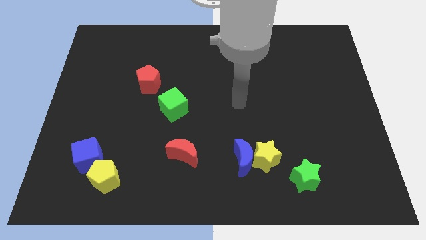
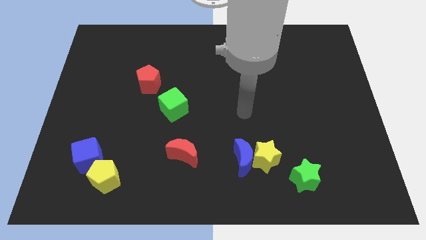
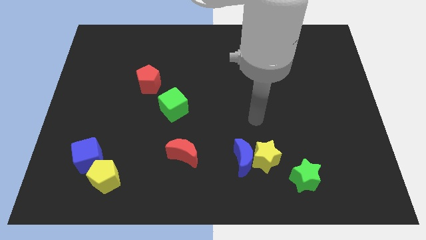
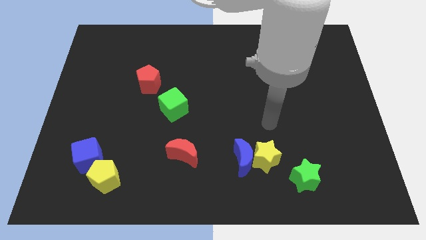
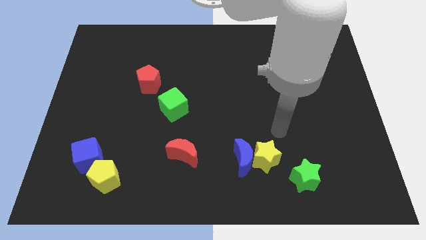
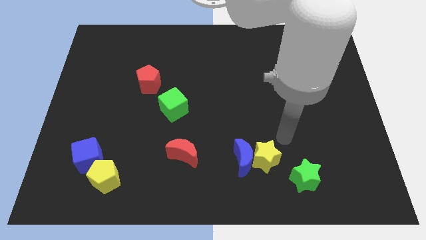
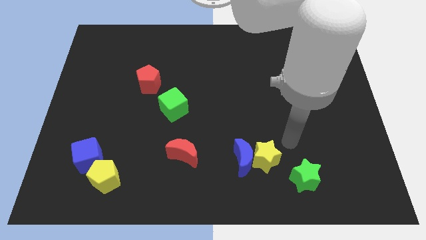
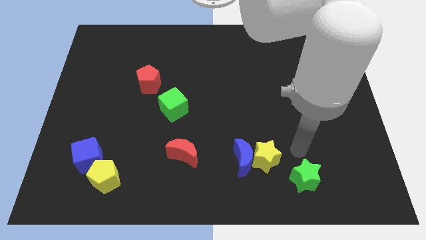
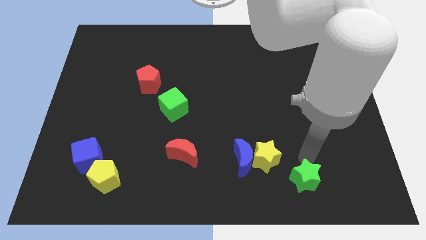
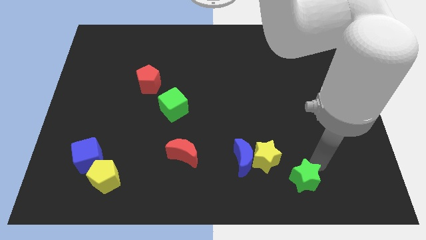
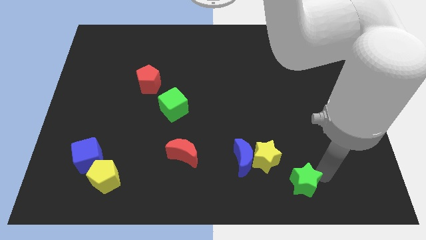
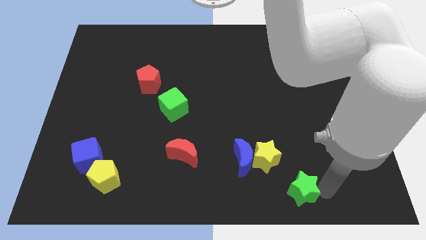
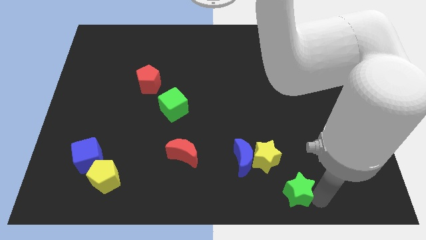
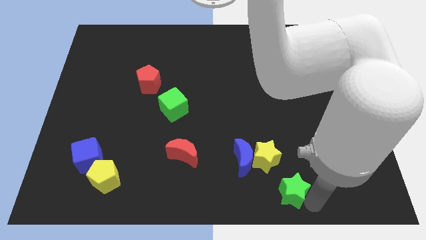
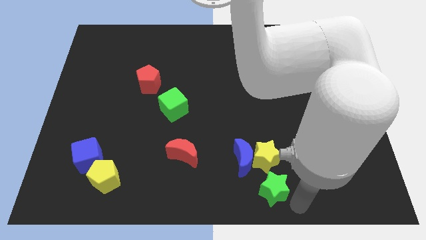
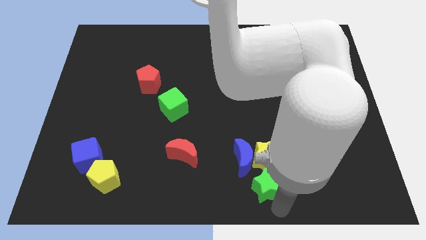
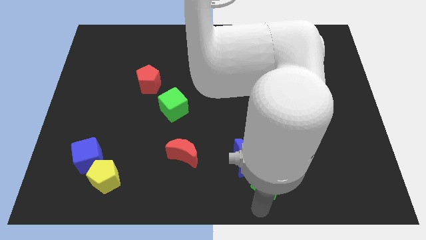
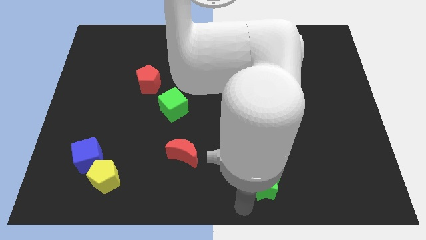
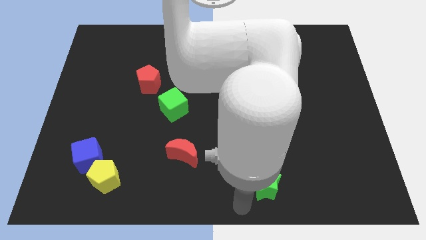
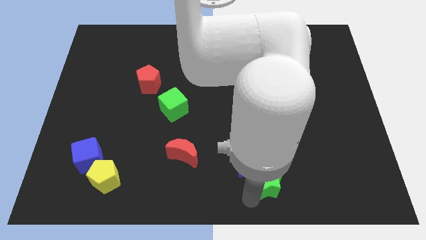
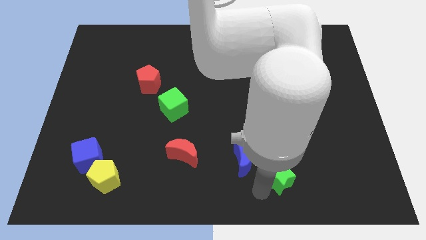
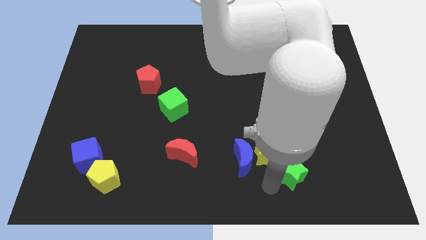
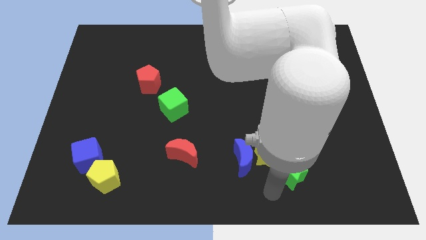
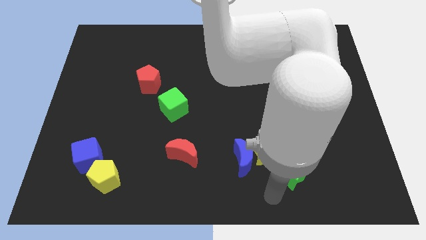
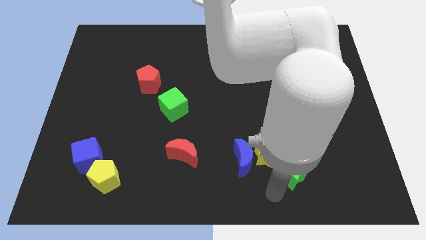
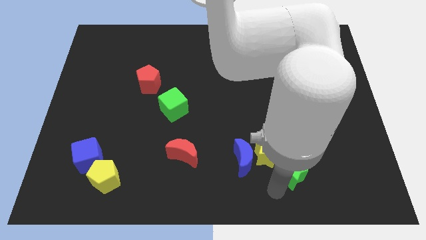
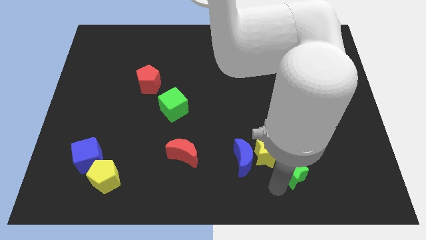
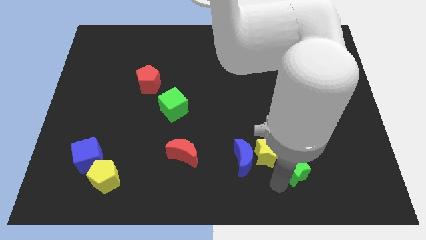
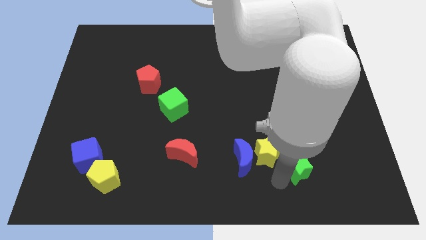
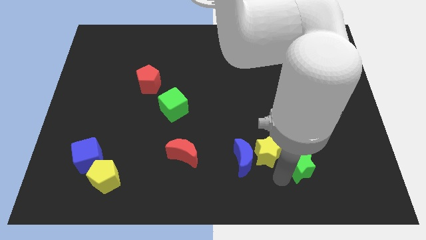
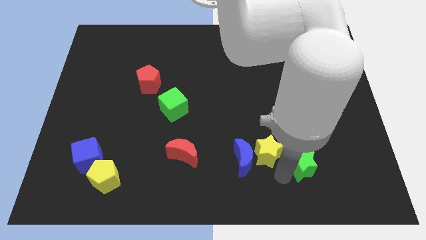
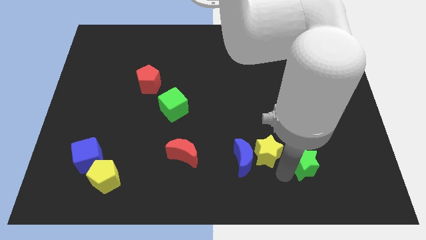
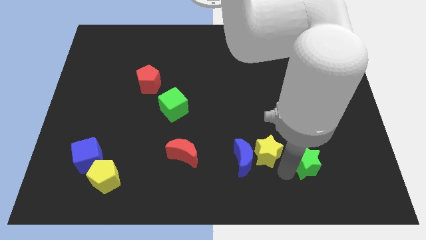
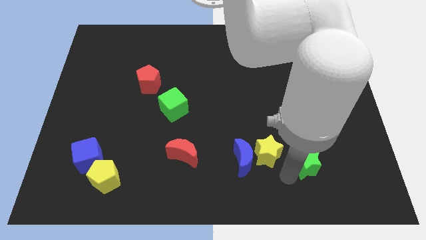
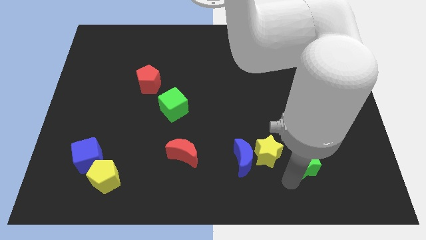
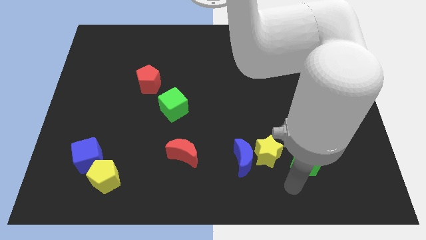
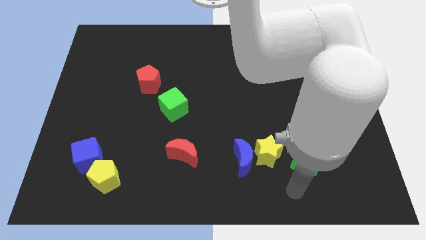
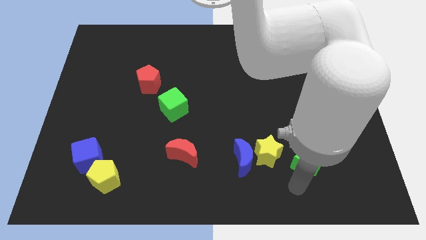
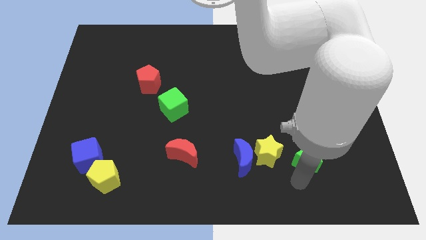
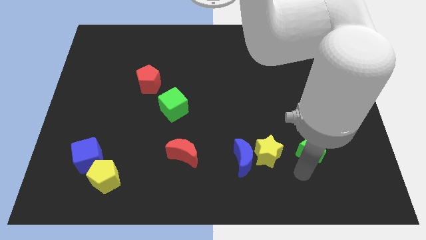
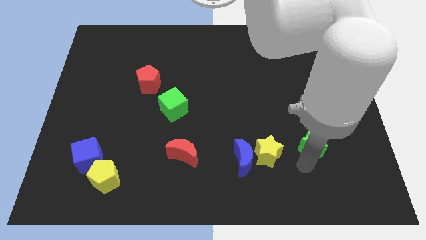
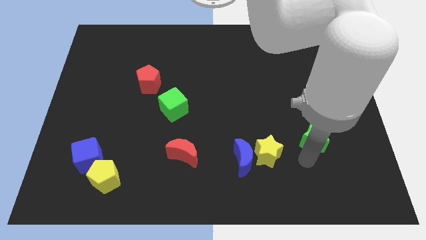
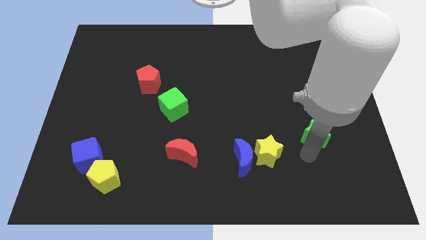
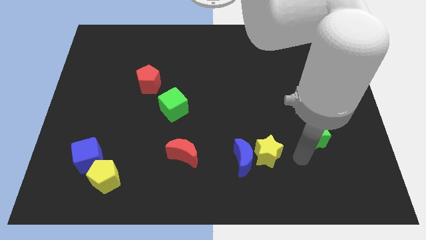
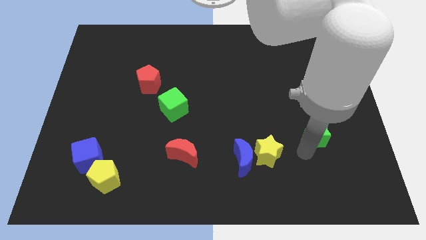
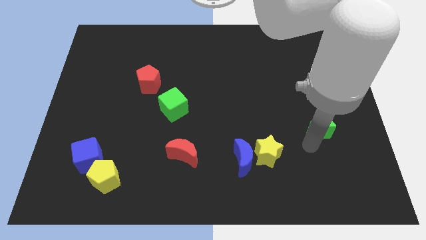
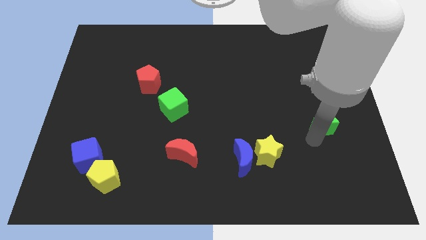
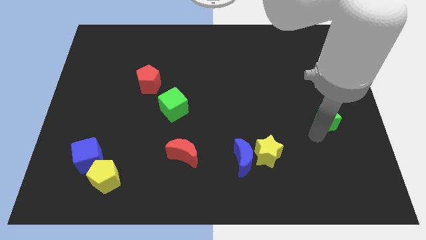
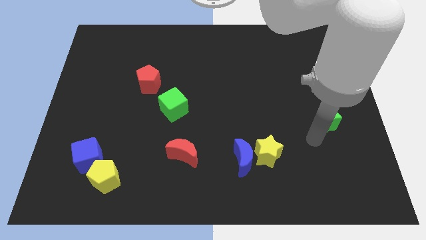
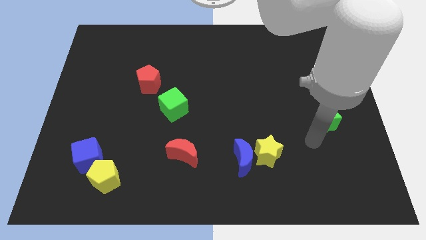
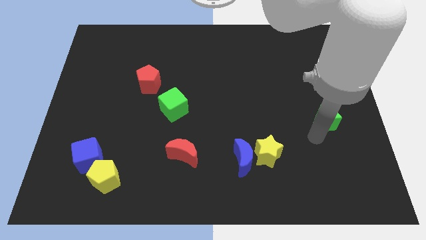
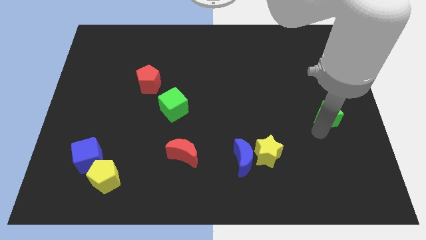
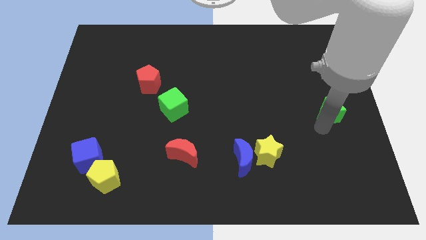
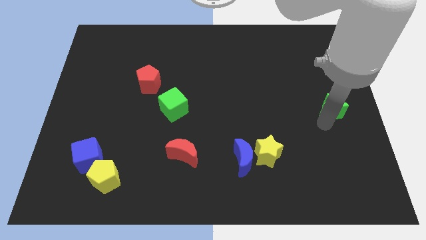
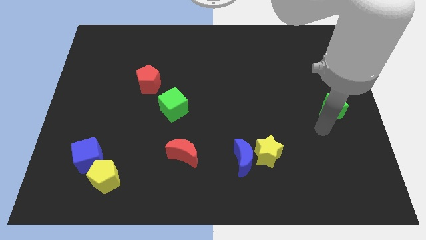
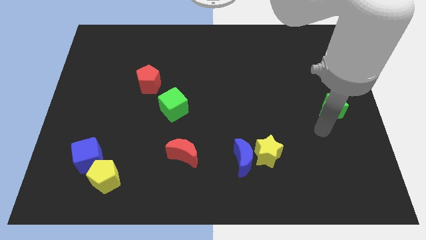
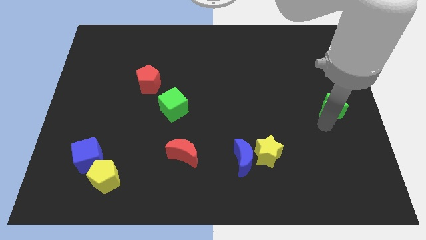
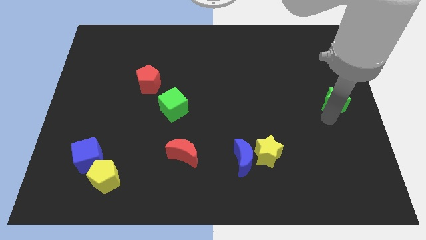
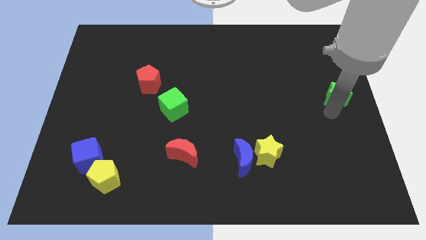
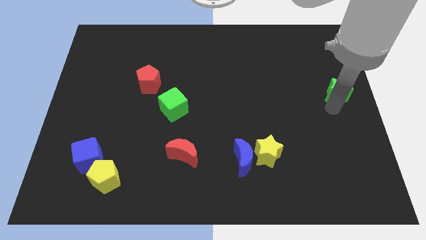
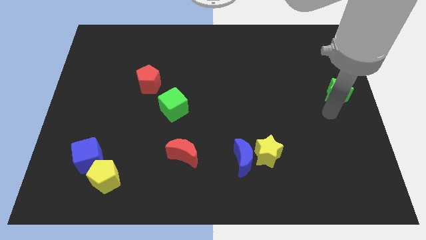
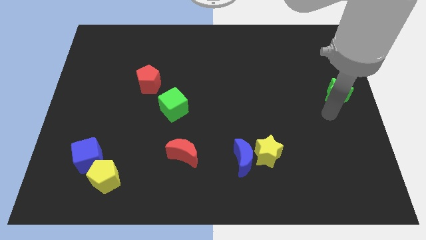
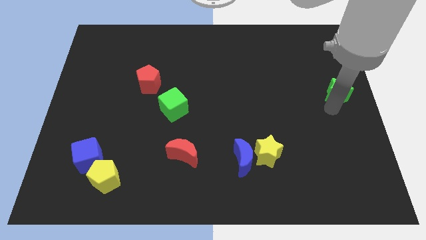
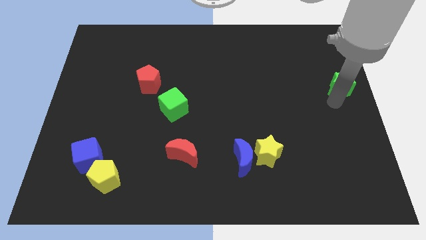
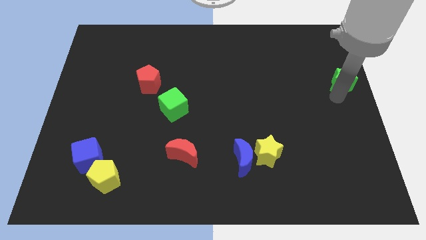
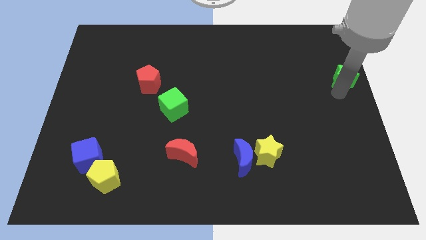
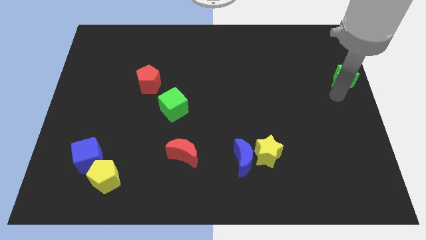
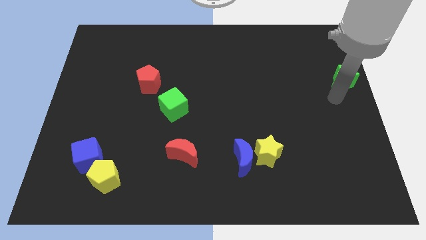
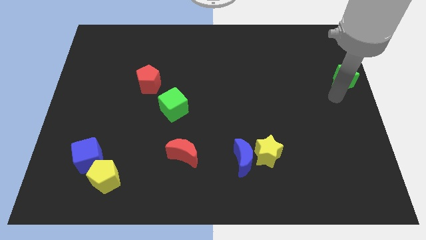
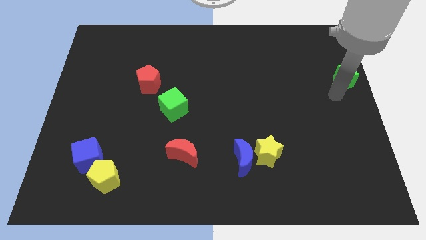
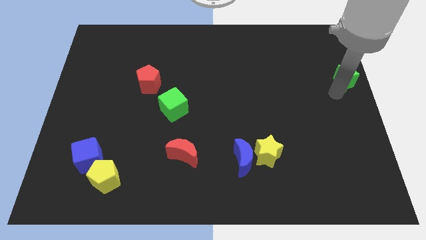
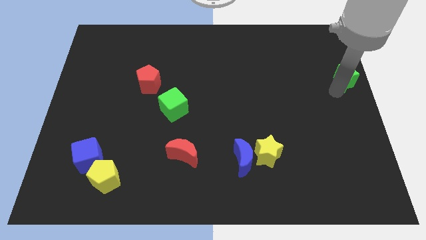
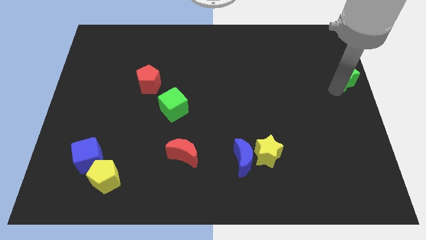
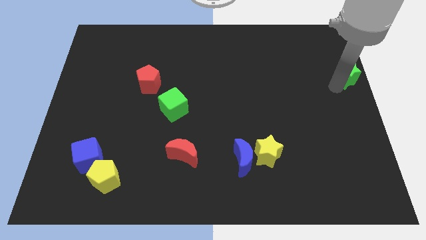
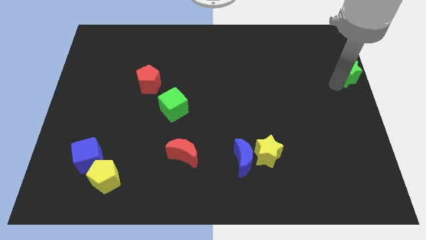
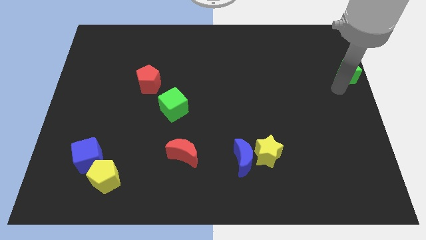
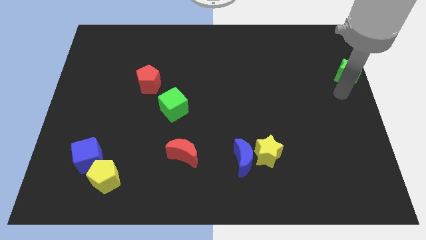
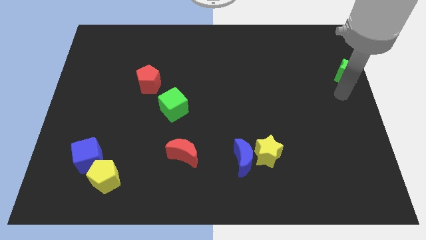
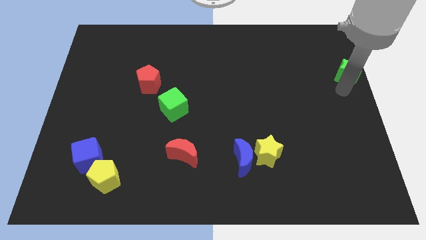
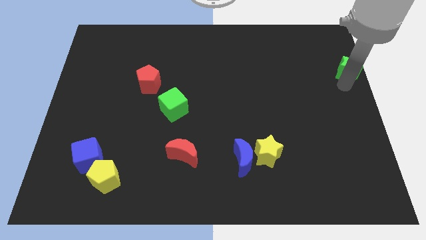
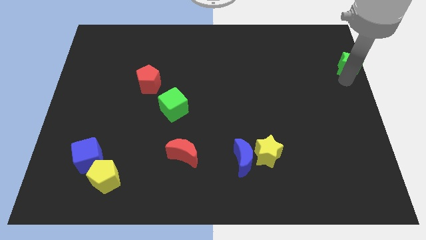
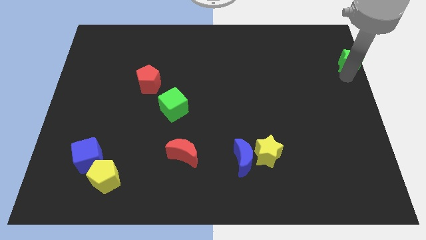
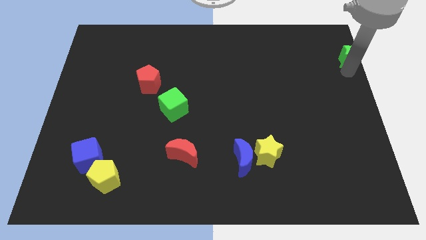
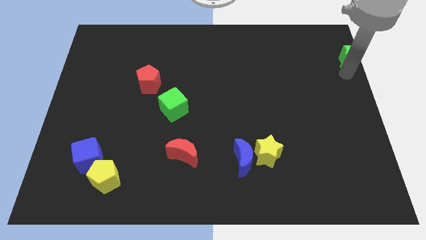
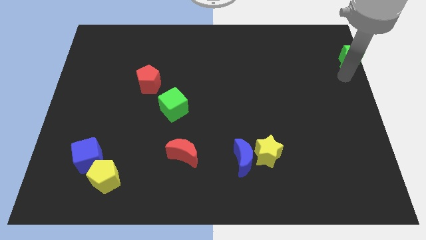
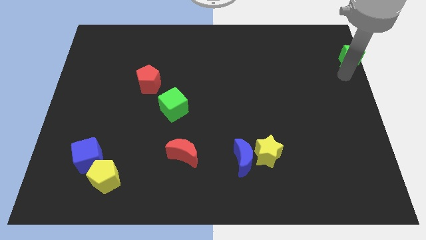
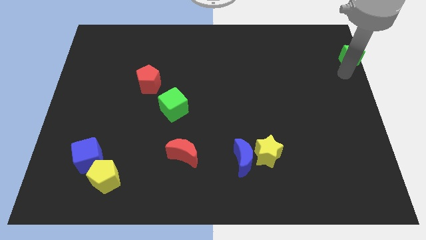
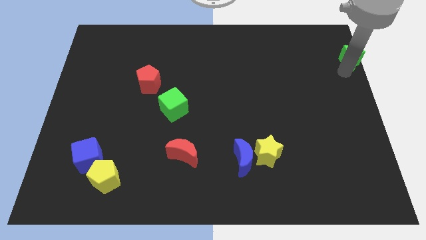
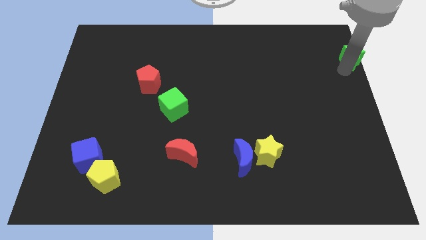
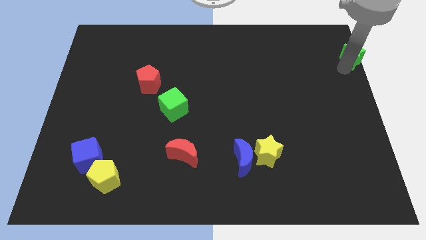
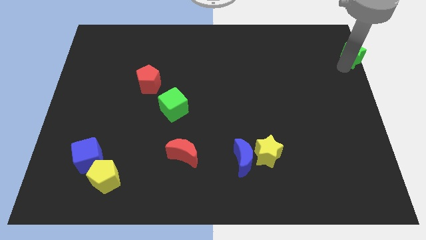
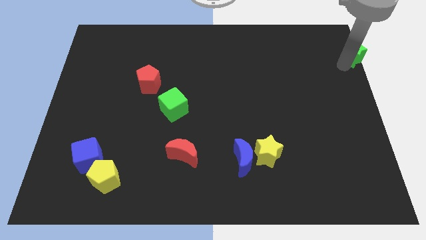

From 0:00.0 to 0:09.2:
put the green star to the upper right corner
